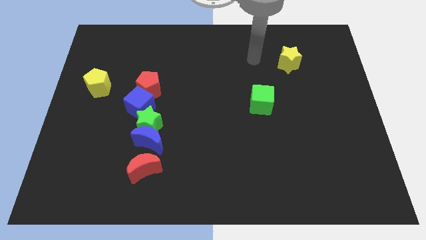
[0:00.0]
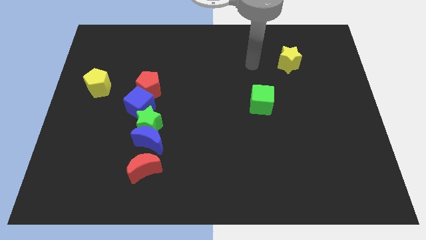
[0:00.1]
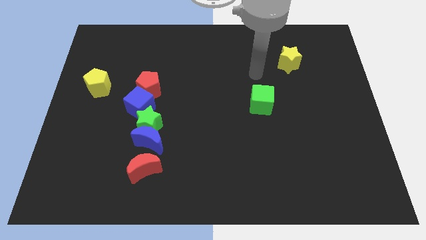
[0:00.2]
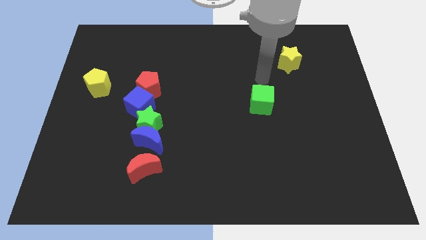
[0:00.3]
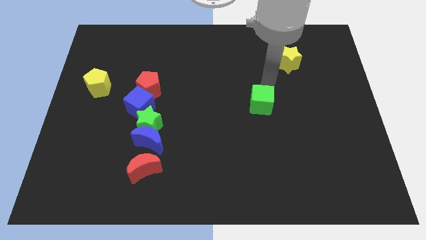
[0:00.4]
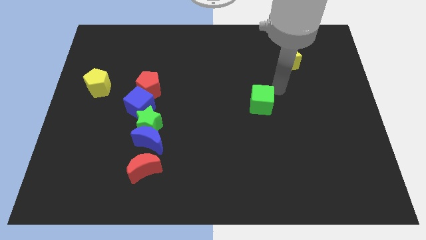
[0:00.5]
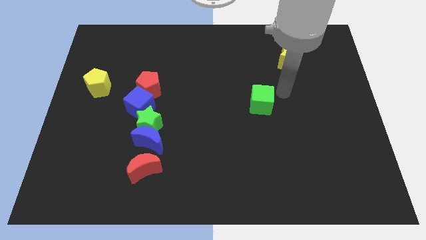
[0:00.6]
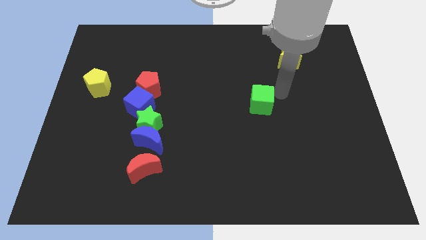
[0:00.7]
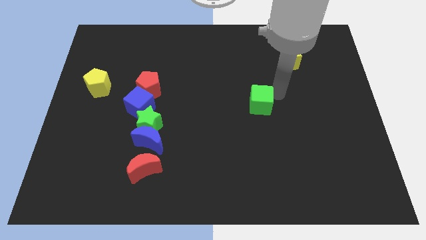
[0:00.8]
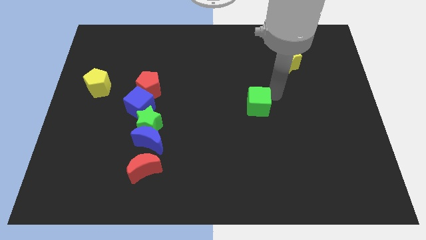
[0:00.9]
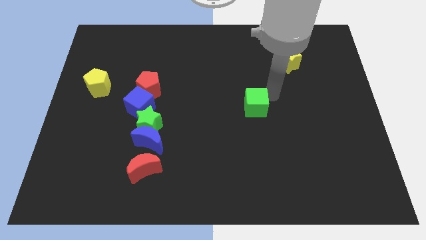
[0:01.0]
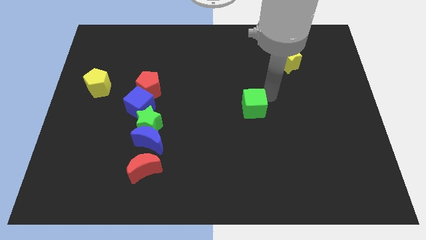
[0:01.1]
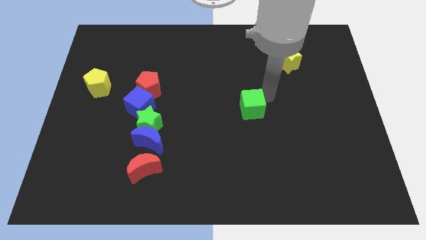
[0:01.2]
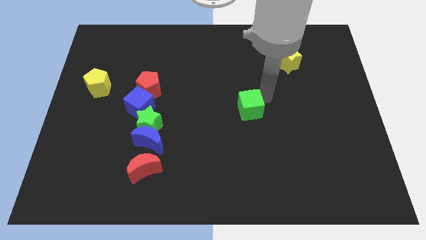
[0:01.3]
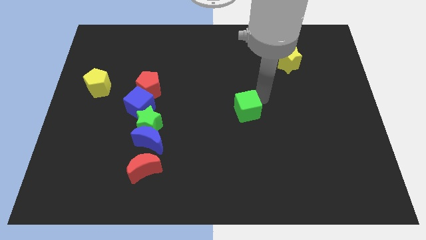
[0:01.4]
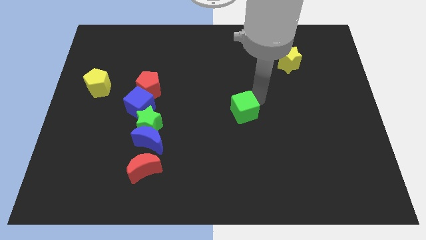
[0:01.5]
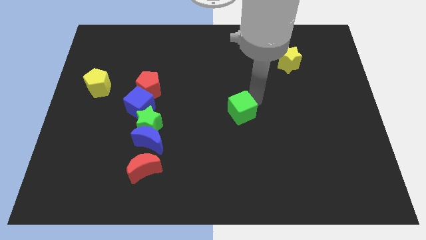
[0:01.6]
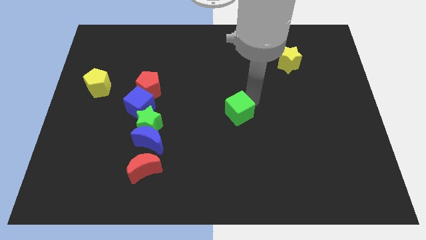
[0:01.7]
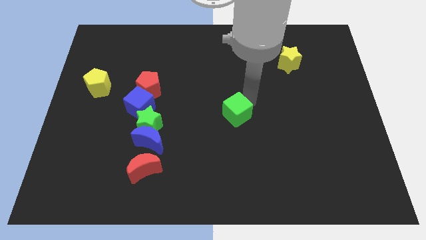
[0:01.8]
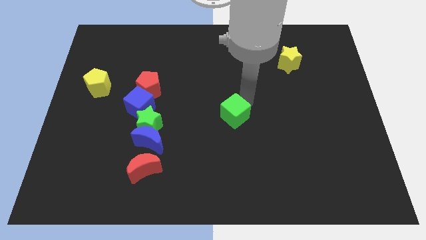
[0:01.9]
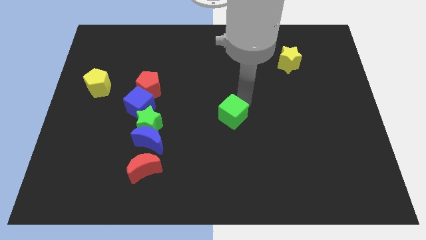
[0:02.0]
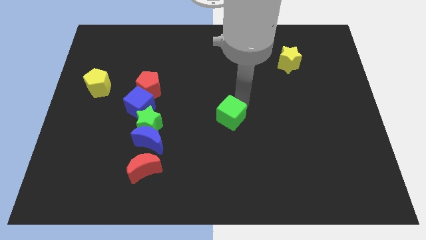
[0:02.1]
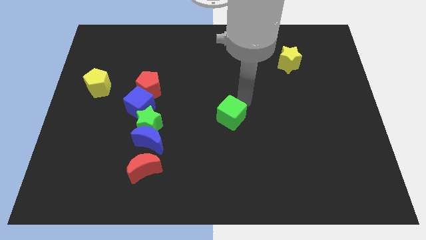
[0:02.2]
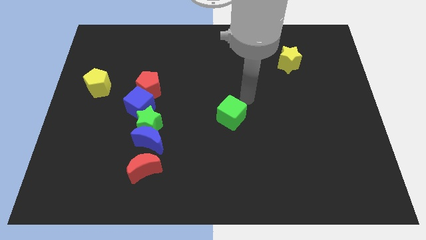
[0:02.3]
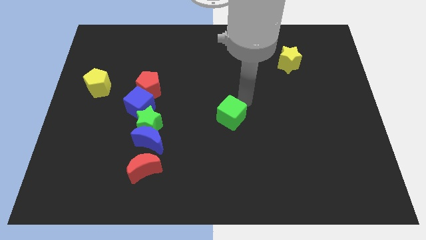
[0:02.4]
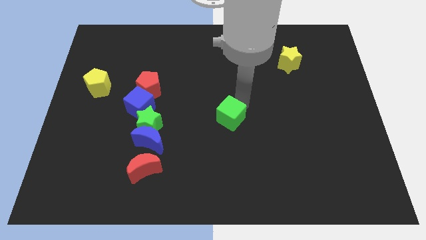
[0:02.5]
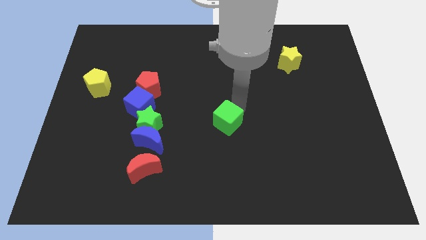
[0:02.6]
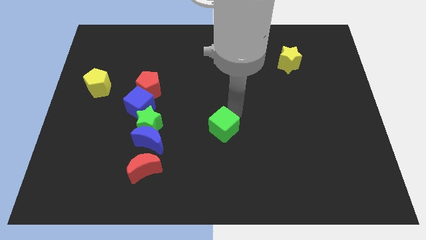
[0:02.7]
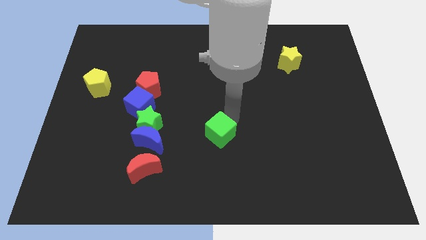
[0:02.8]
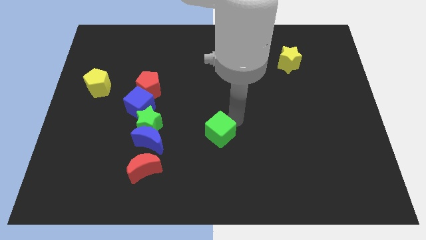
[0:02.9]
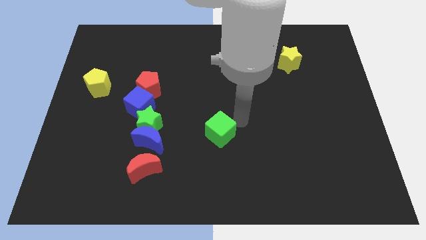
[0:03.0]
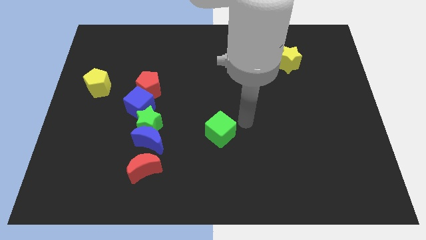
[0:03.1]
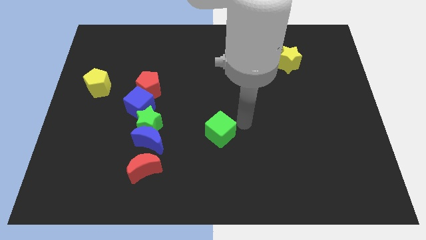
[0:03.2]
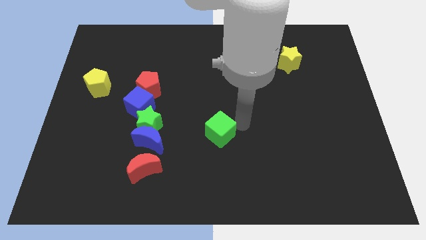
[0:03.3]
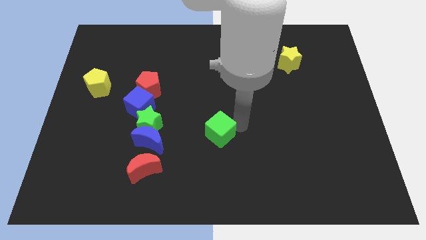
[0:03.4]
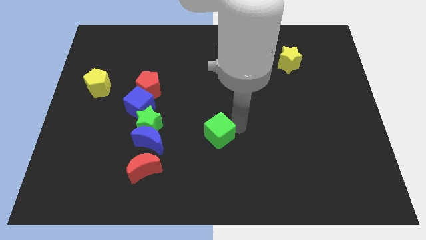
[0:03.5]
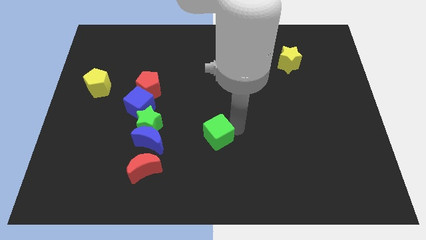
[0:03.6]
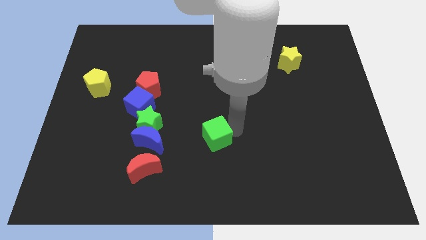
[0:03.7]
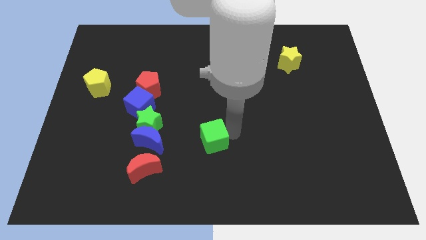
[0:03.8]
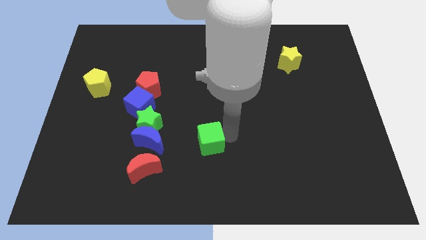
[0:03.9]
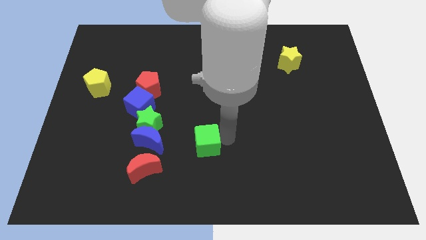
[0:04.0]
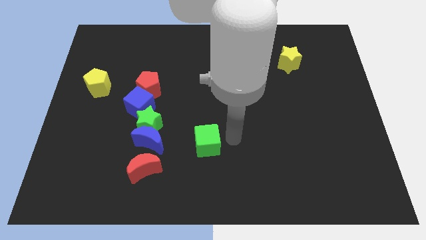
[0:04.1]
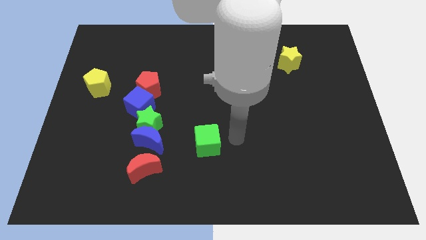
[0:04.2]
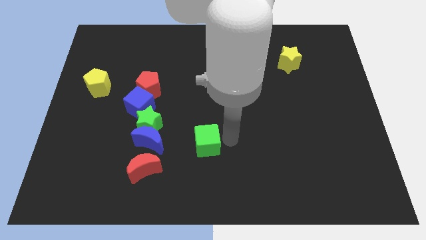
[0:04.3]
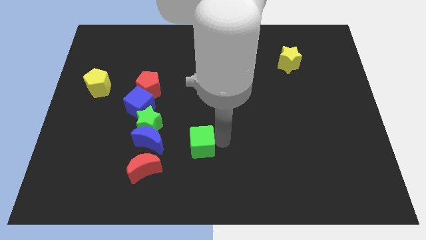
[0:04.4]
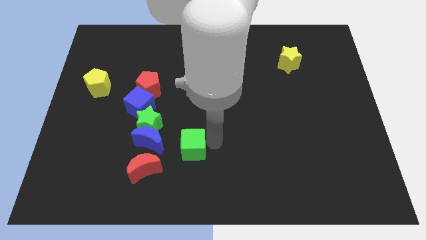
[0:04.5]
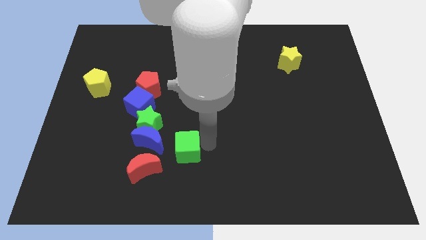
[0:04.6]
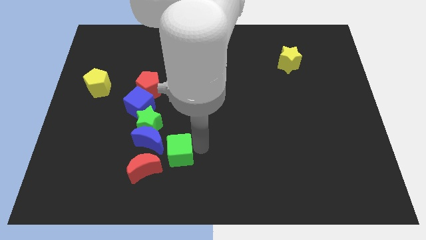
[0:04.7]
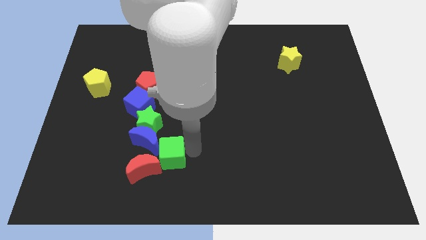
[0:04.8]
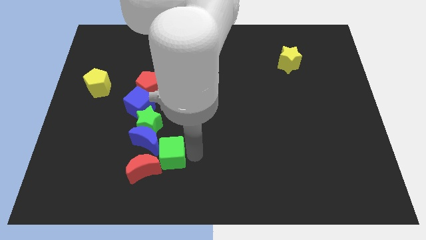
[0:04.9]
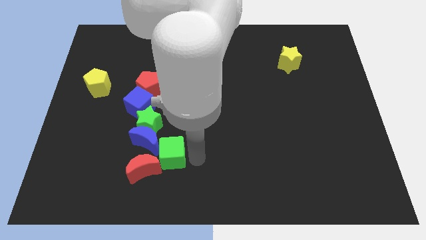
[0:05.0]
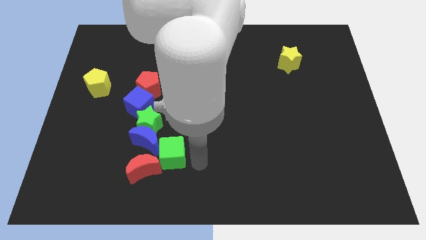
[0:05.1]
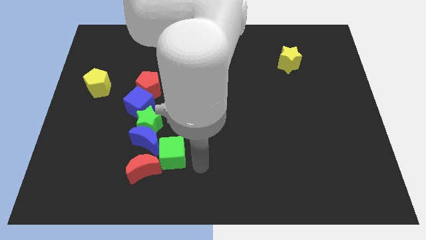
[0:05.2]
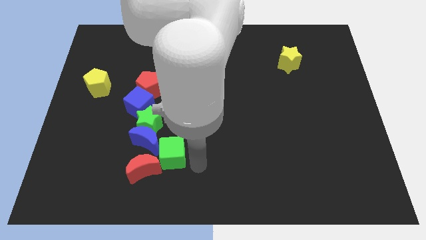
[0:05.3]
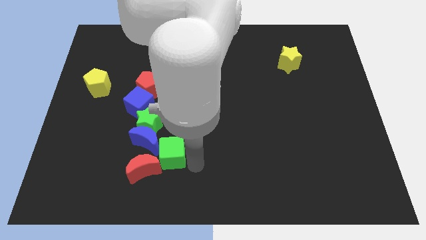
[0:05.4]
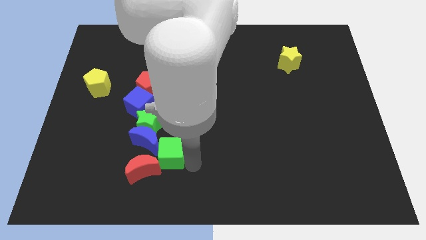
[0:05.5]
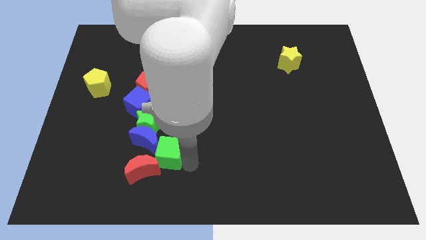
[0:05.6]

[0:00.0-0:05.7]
put the green cube to the blue moon

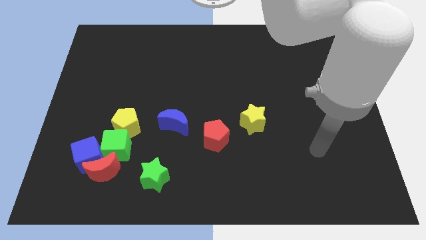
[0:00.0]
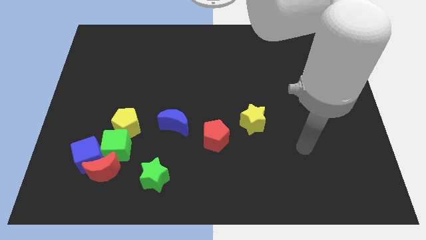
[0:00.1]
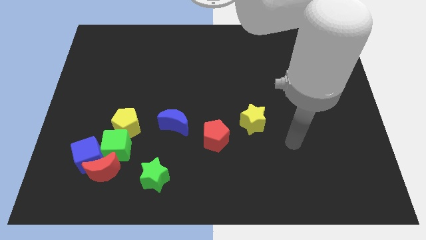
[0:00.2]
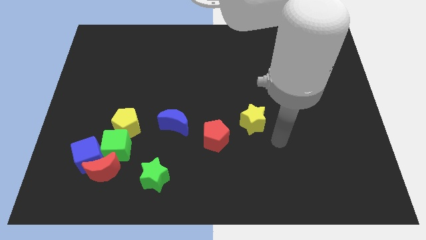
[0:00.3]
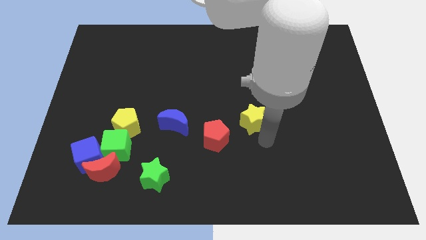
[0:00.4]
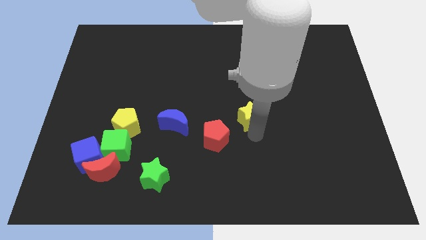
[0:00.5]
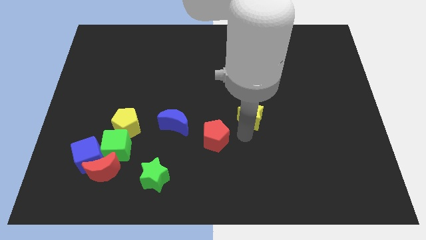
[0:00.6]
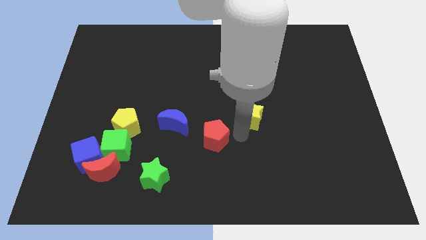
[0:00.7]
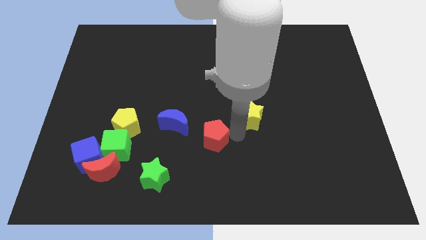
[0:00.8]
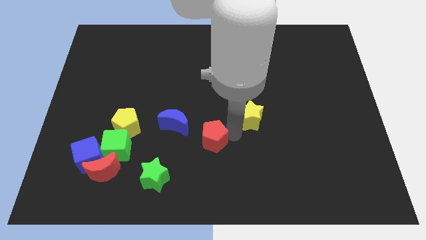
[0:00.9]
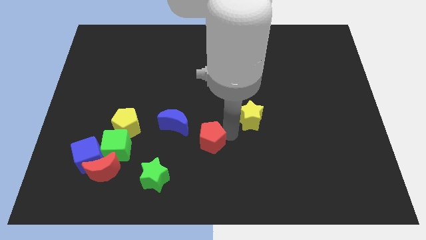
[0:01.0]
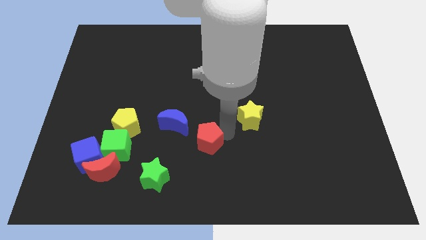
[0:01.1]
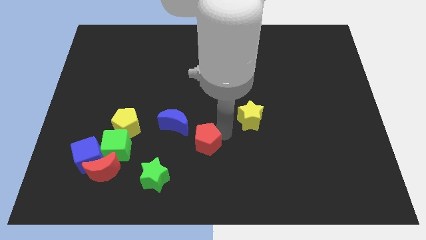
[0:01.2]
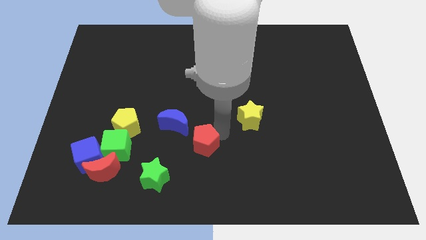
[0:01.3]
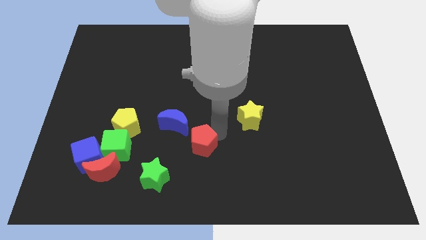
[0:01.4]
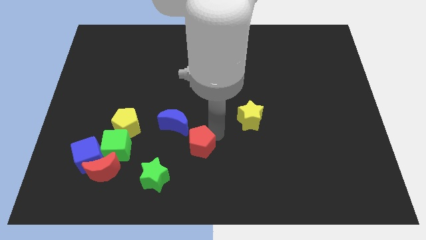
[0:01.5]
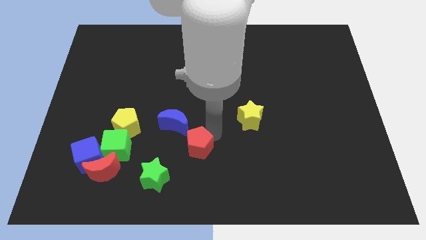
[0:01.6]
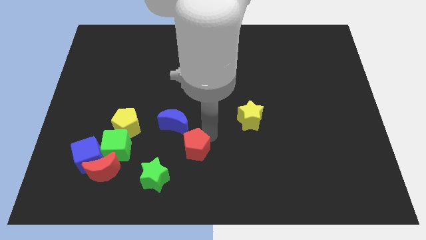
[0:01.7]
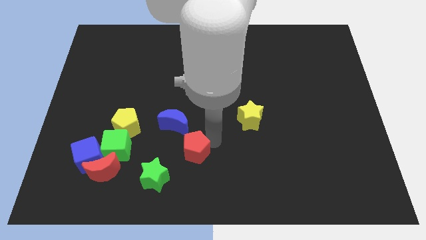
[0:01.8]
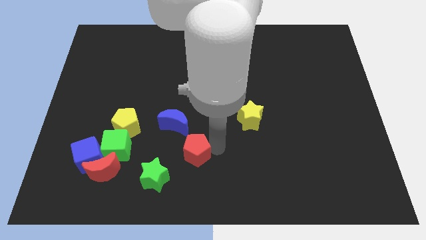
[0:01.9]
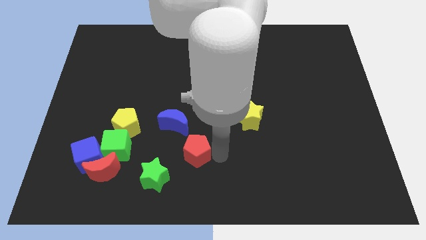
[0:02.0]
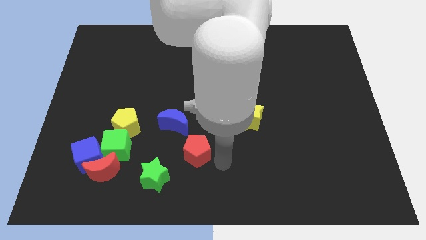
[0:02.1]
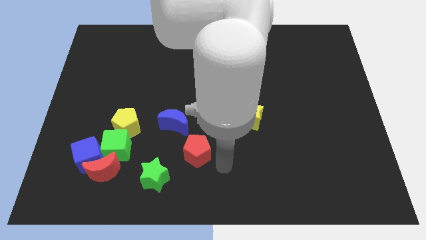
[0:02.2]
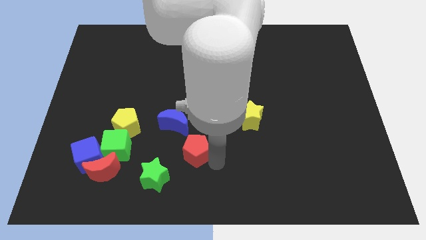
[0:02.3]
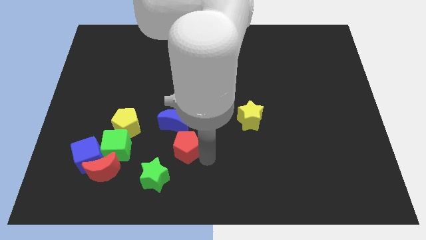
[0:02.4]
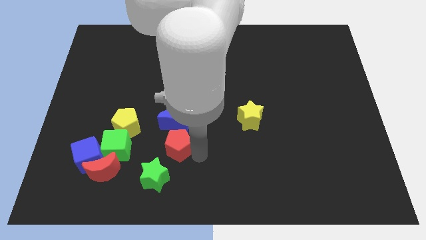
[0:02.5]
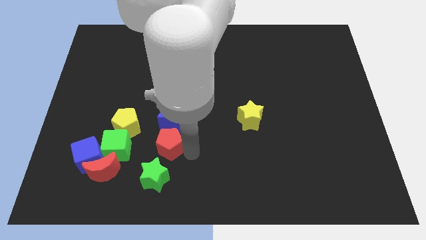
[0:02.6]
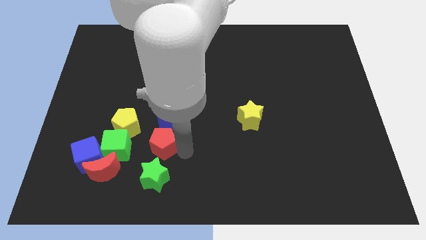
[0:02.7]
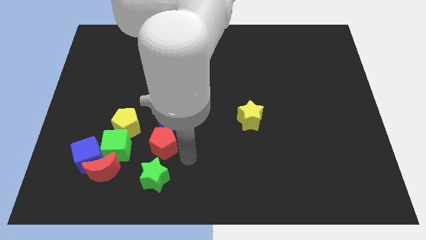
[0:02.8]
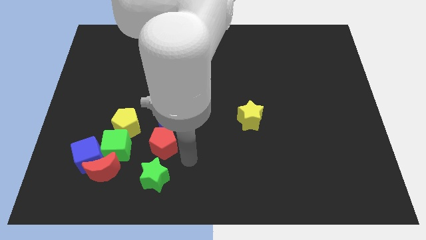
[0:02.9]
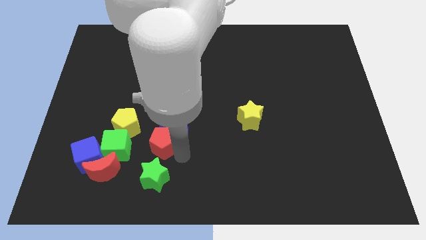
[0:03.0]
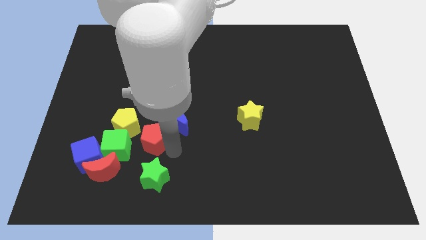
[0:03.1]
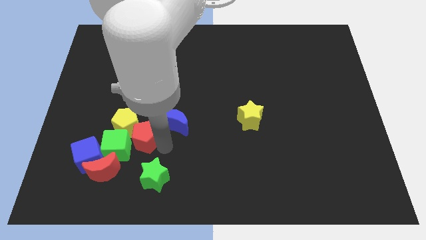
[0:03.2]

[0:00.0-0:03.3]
slide the red pentagon next to the yellow pentagon
